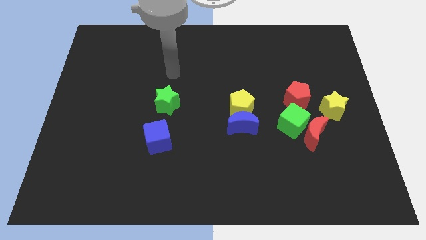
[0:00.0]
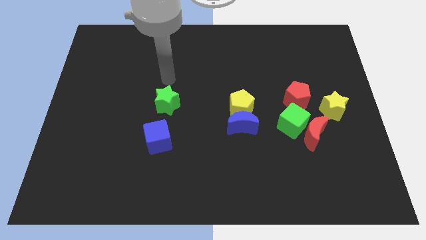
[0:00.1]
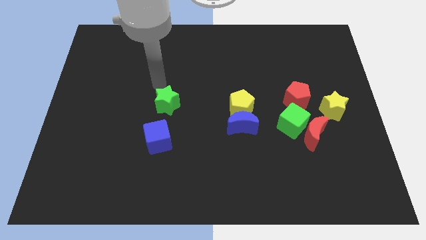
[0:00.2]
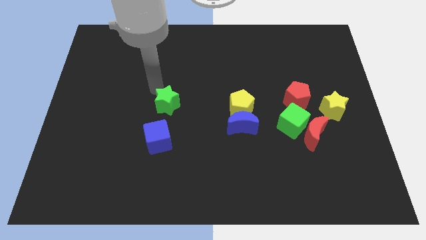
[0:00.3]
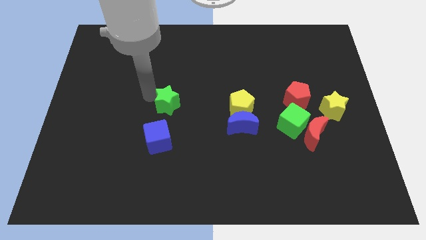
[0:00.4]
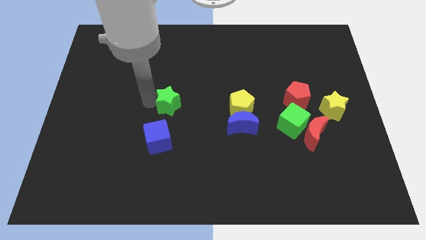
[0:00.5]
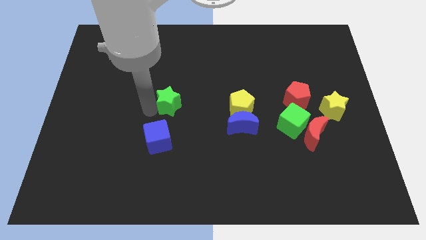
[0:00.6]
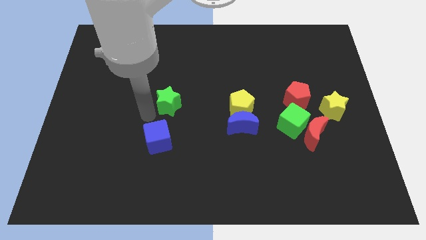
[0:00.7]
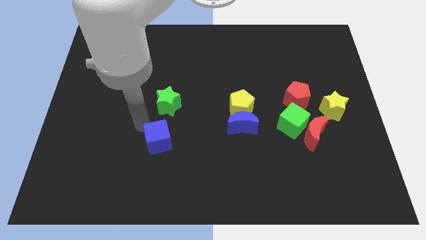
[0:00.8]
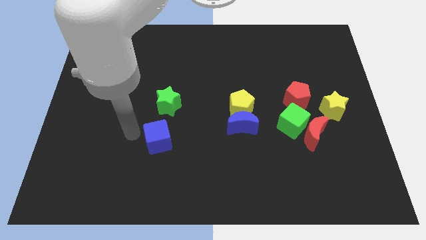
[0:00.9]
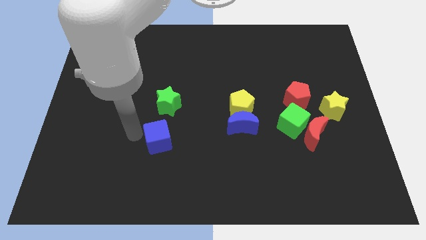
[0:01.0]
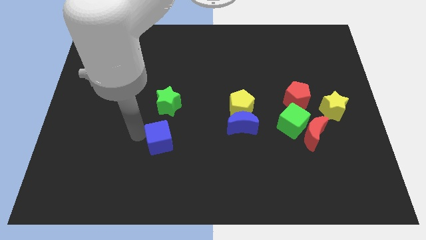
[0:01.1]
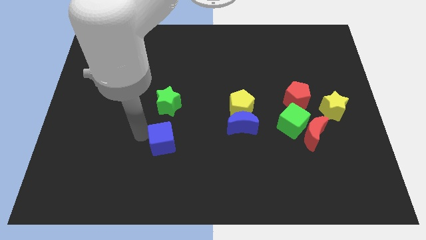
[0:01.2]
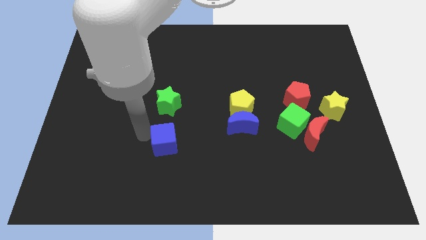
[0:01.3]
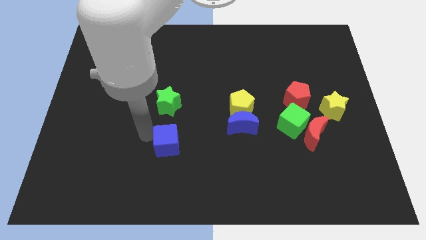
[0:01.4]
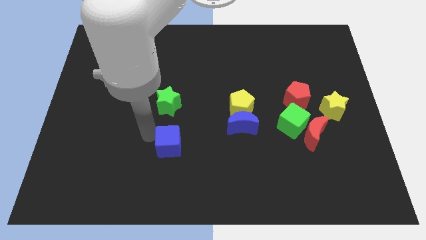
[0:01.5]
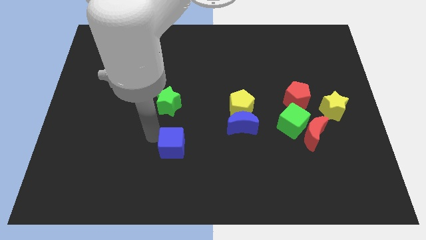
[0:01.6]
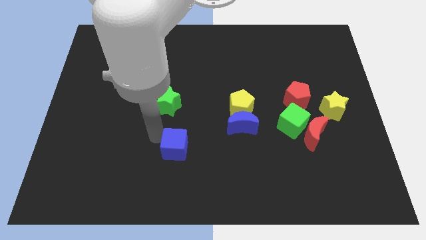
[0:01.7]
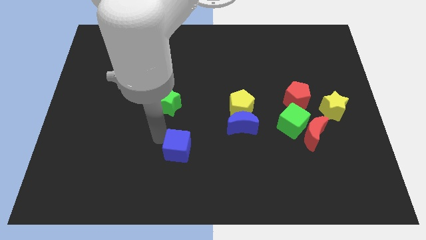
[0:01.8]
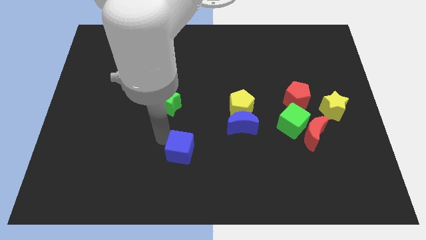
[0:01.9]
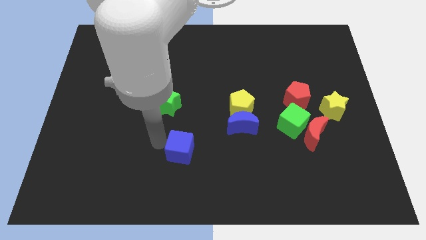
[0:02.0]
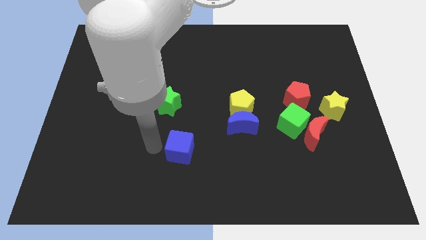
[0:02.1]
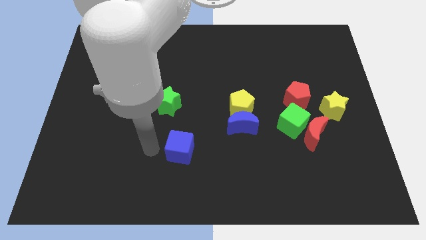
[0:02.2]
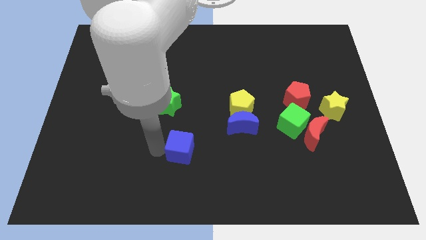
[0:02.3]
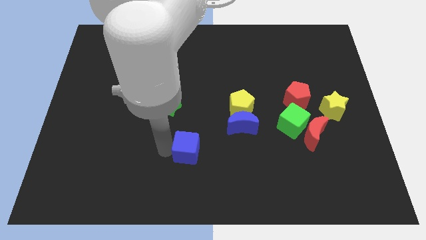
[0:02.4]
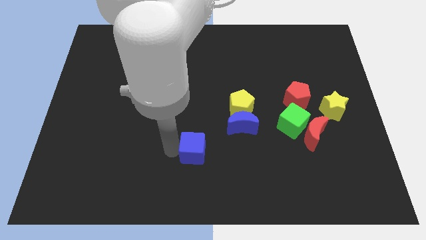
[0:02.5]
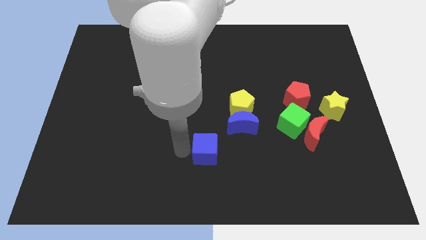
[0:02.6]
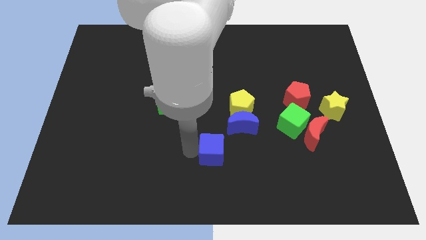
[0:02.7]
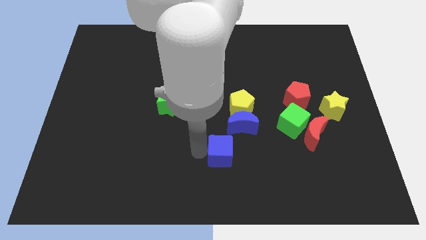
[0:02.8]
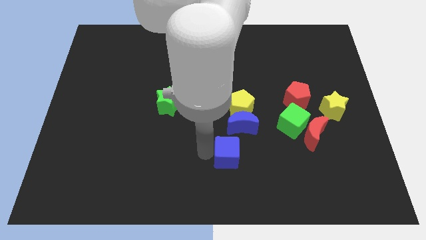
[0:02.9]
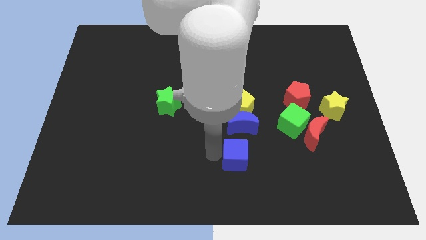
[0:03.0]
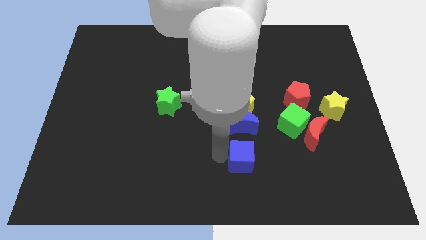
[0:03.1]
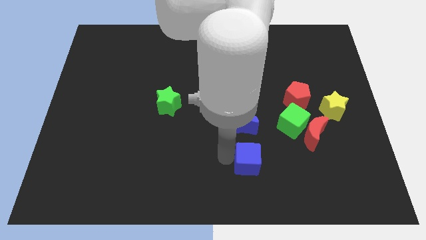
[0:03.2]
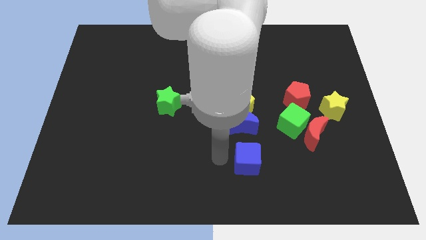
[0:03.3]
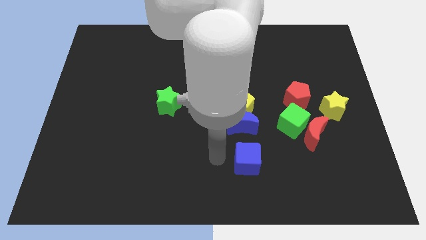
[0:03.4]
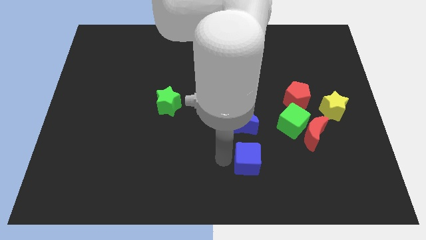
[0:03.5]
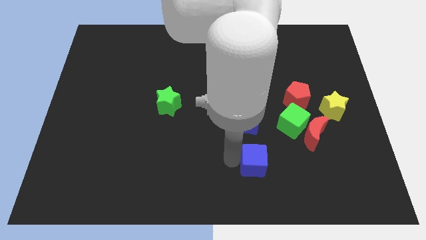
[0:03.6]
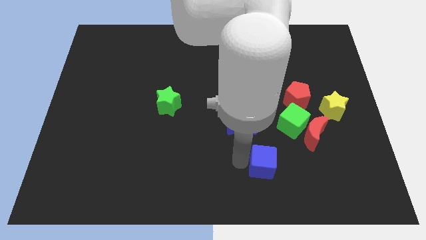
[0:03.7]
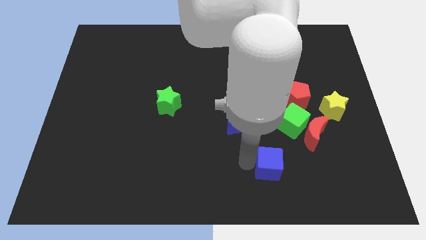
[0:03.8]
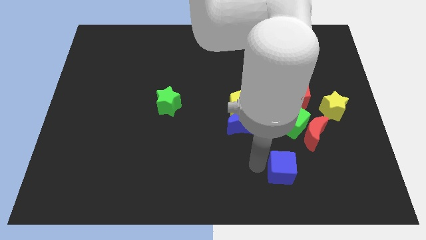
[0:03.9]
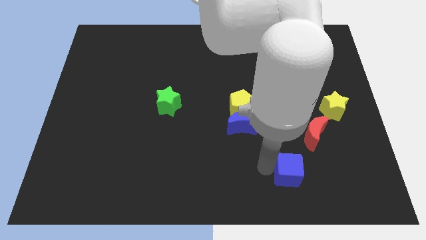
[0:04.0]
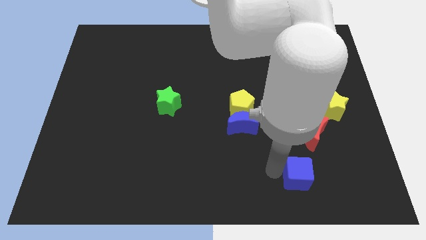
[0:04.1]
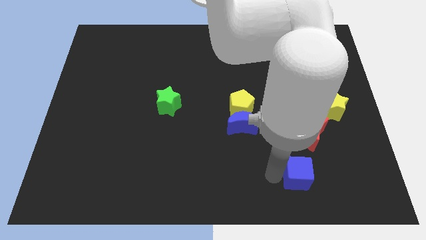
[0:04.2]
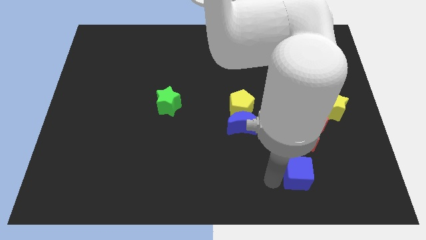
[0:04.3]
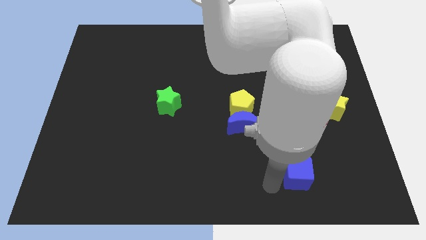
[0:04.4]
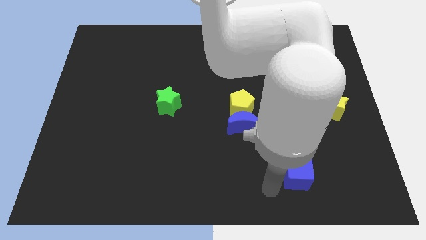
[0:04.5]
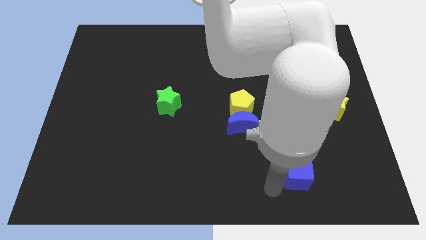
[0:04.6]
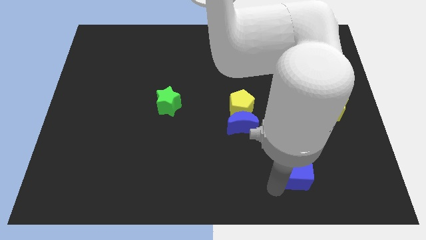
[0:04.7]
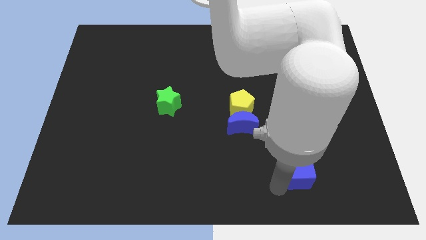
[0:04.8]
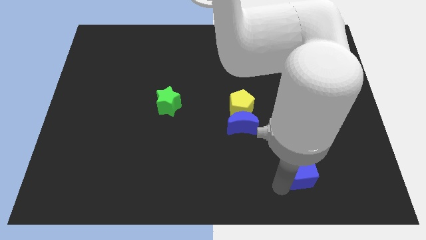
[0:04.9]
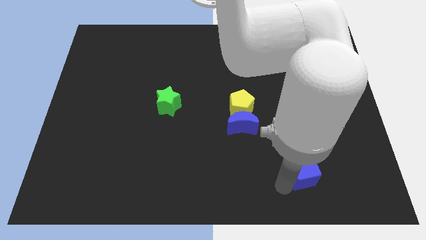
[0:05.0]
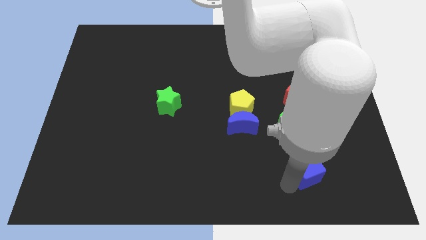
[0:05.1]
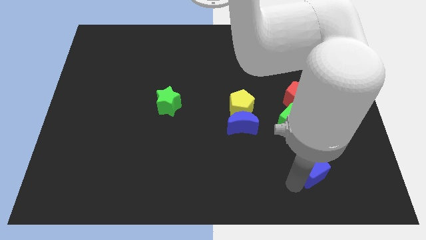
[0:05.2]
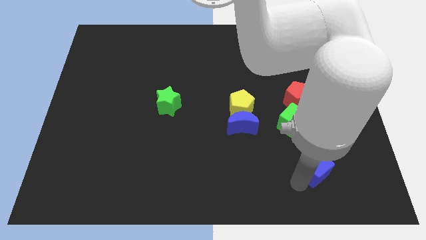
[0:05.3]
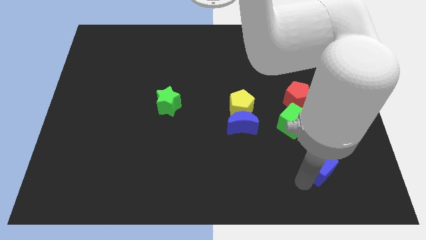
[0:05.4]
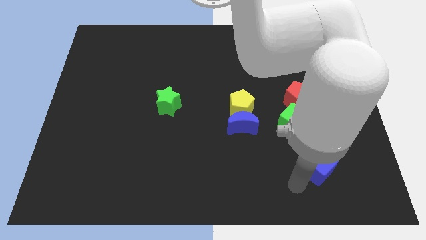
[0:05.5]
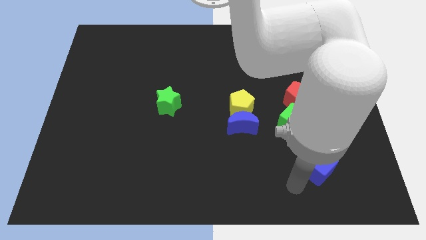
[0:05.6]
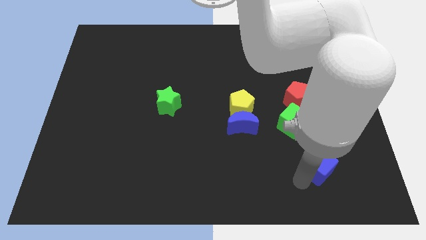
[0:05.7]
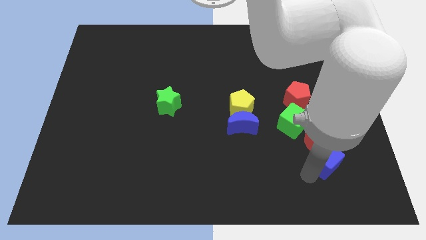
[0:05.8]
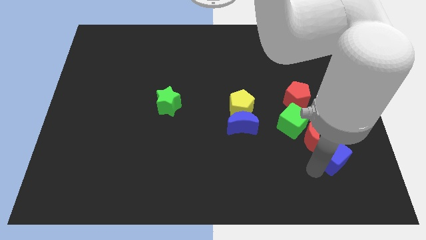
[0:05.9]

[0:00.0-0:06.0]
move the blue cube to the bottom of the yellow star

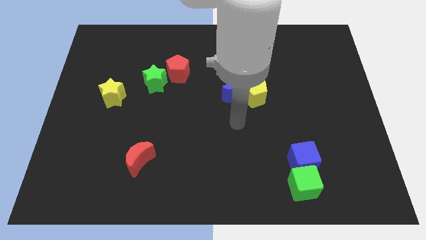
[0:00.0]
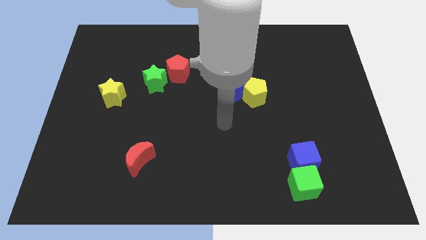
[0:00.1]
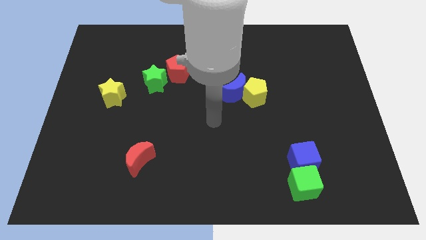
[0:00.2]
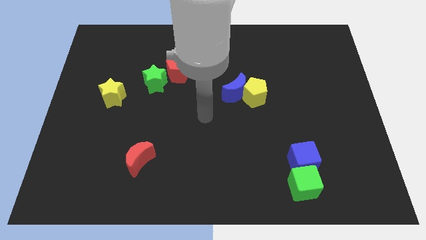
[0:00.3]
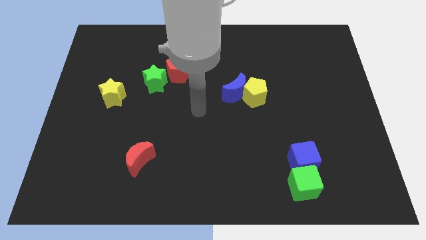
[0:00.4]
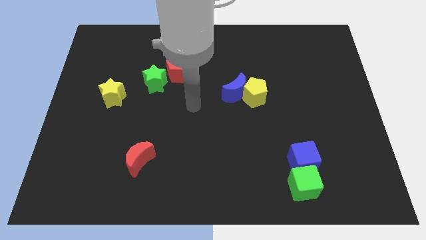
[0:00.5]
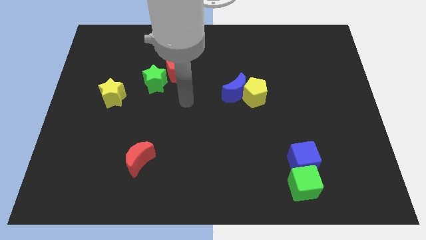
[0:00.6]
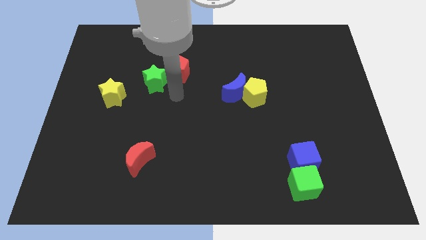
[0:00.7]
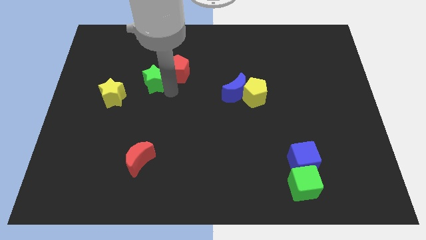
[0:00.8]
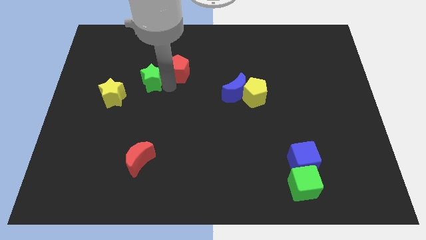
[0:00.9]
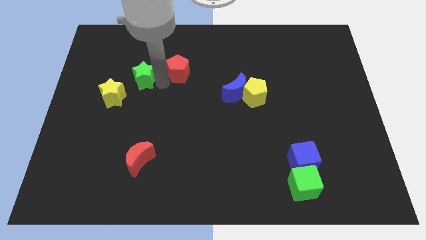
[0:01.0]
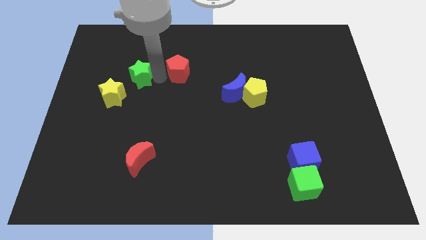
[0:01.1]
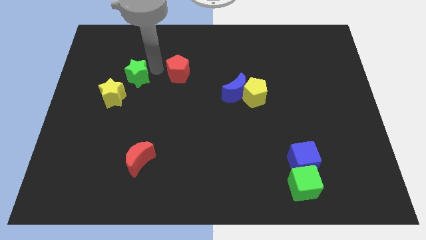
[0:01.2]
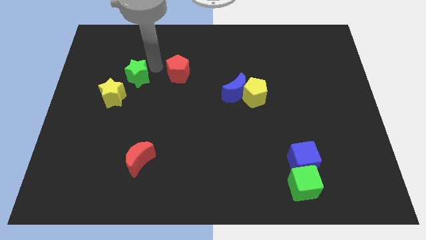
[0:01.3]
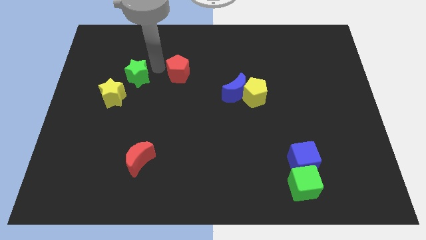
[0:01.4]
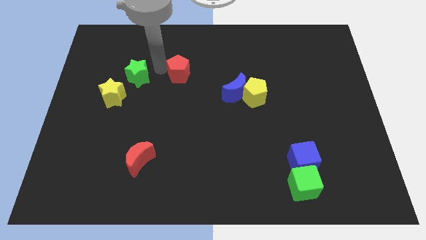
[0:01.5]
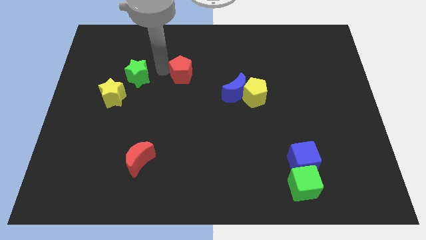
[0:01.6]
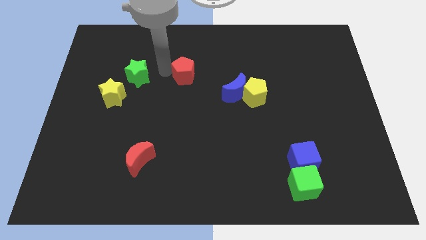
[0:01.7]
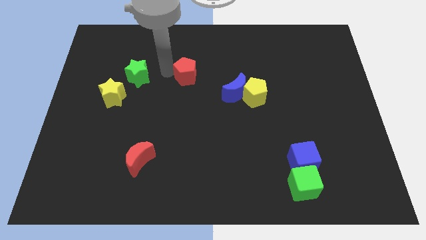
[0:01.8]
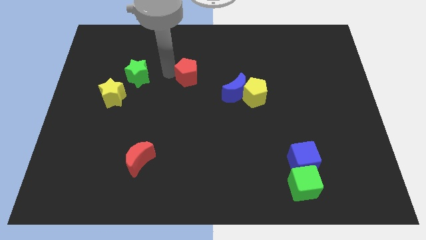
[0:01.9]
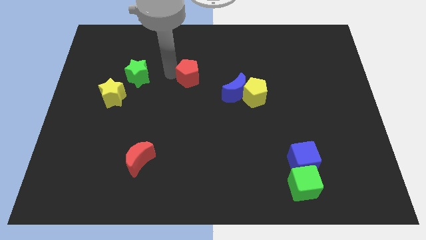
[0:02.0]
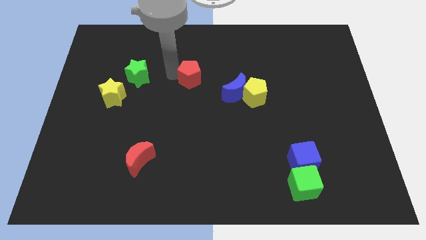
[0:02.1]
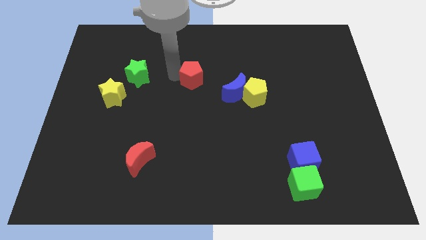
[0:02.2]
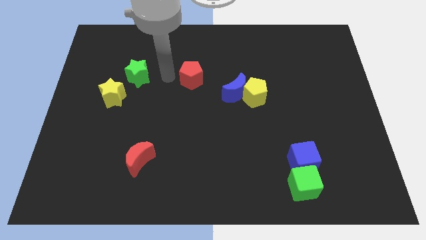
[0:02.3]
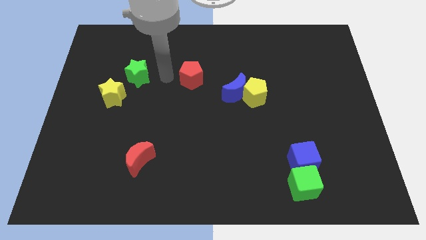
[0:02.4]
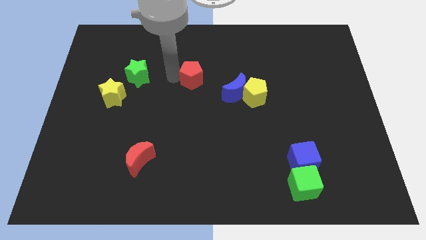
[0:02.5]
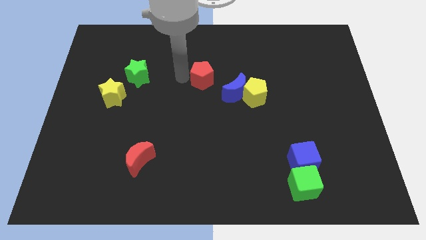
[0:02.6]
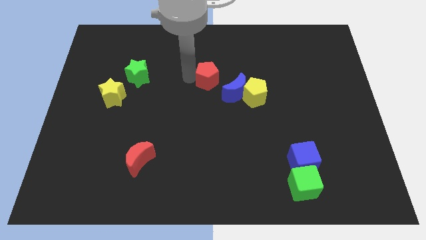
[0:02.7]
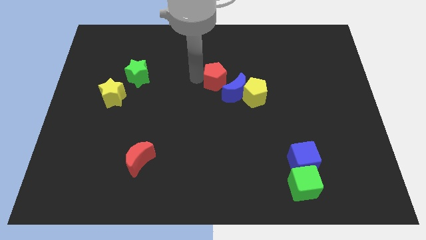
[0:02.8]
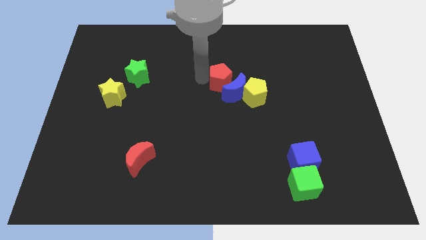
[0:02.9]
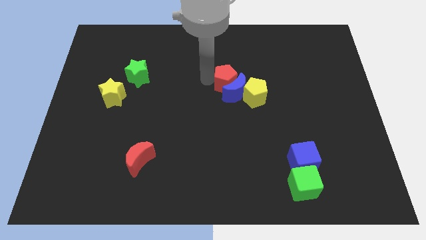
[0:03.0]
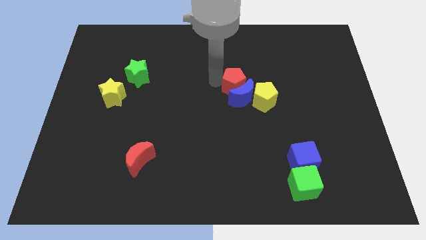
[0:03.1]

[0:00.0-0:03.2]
slide the red pentagon to the top right of the blue moon
